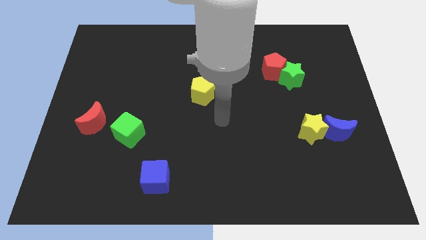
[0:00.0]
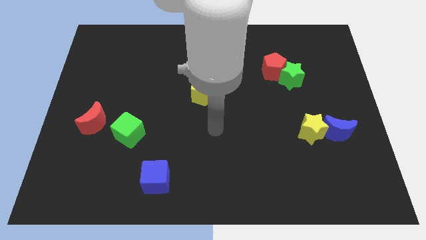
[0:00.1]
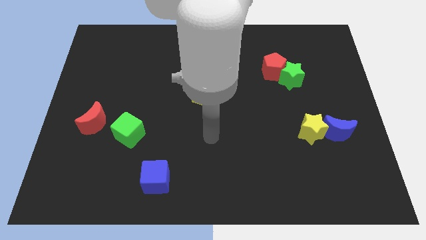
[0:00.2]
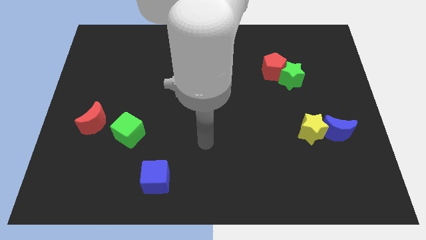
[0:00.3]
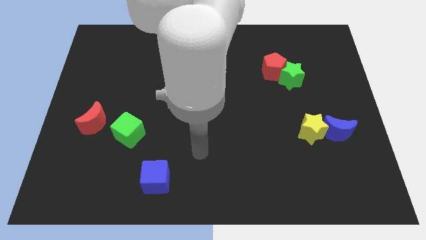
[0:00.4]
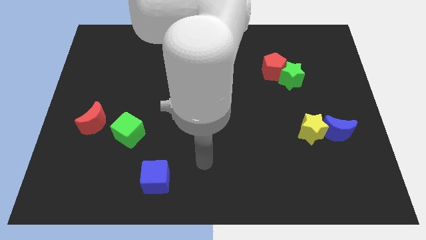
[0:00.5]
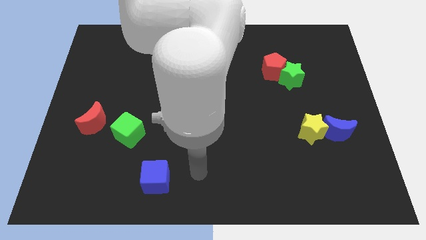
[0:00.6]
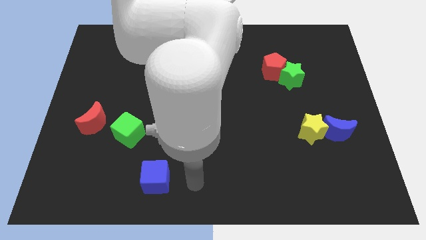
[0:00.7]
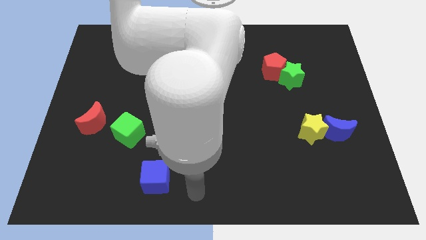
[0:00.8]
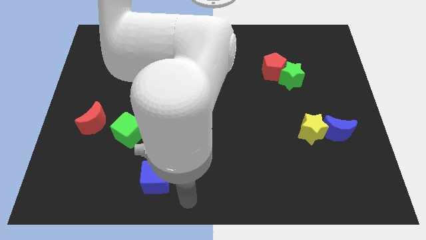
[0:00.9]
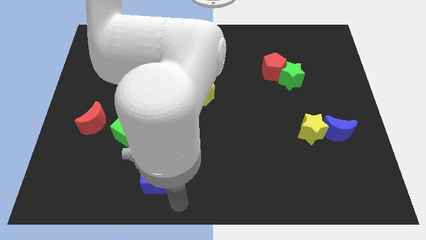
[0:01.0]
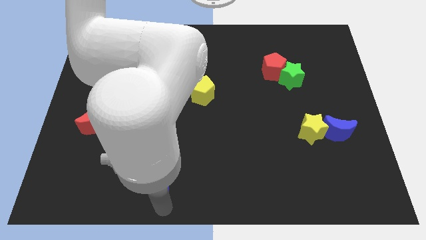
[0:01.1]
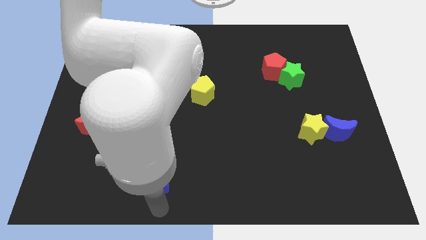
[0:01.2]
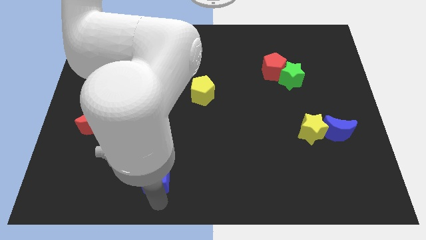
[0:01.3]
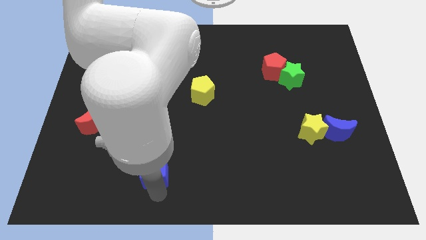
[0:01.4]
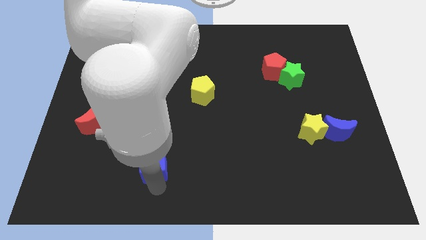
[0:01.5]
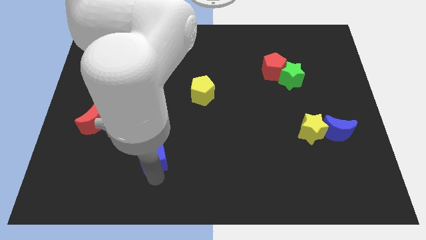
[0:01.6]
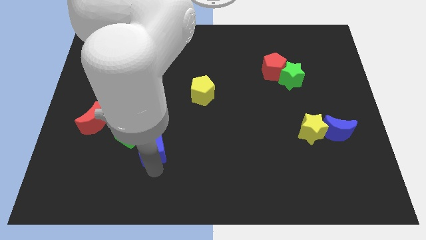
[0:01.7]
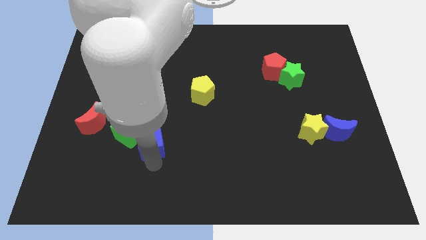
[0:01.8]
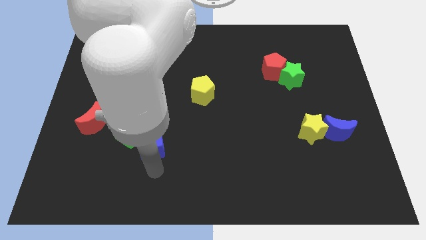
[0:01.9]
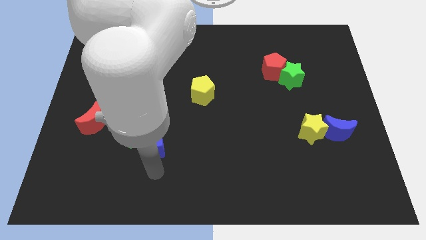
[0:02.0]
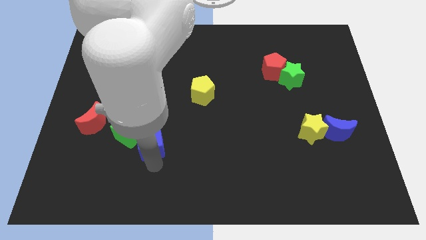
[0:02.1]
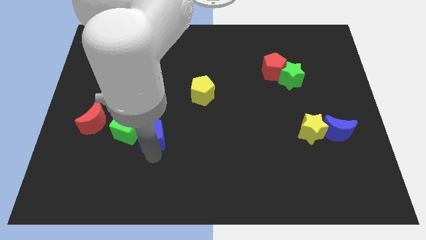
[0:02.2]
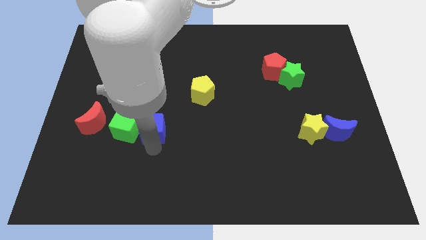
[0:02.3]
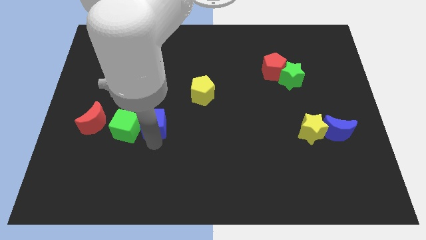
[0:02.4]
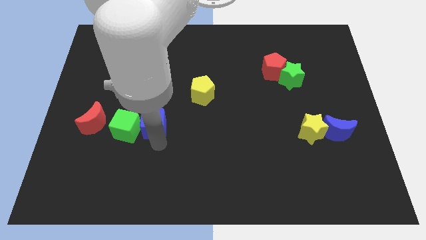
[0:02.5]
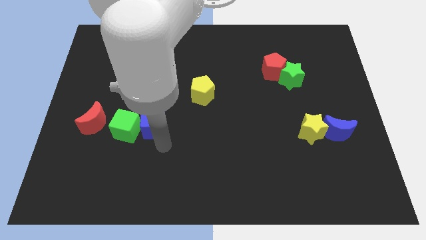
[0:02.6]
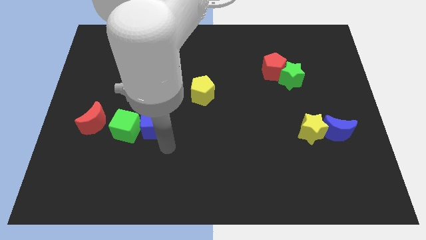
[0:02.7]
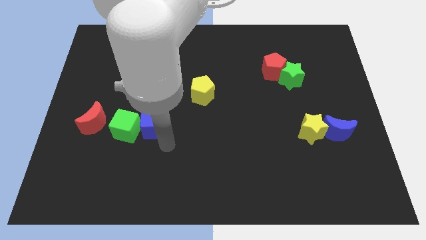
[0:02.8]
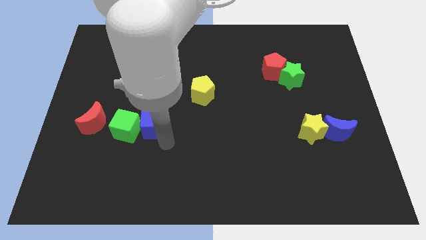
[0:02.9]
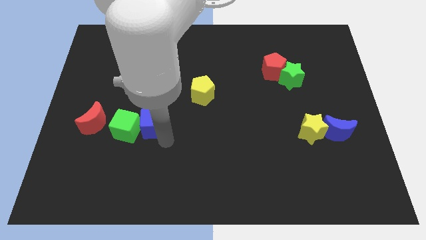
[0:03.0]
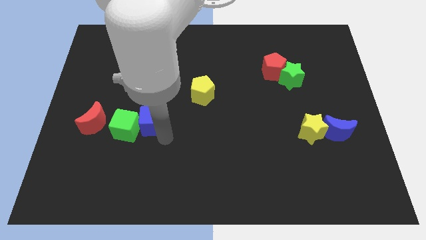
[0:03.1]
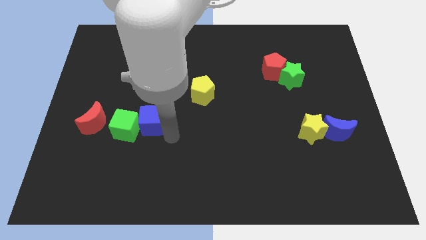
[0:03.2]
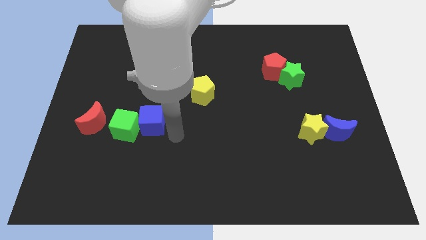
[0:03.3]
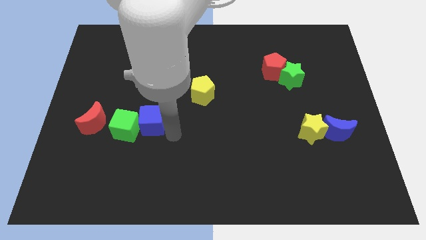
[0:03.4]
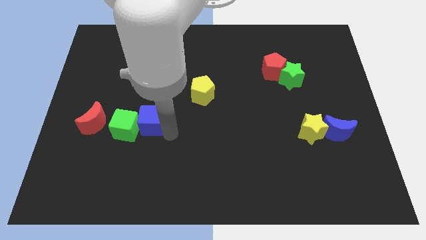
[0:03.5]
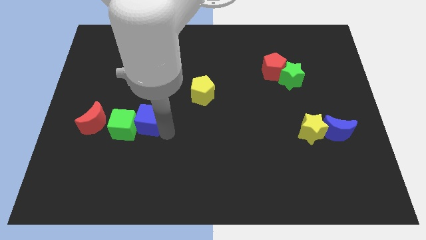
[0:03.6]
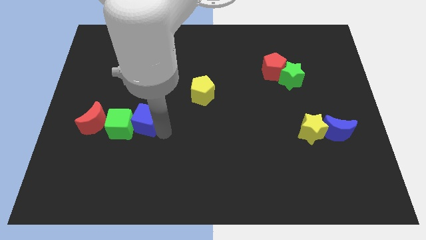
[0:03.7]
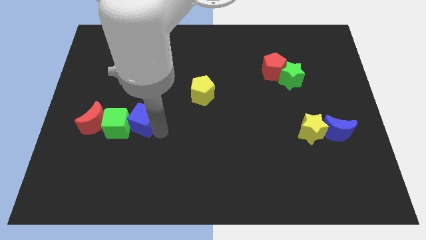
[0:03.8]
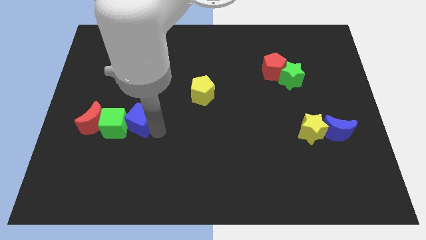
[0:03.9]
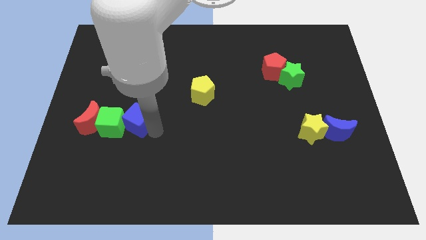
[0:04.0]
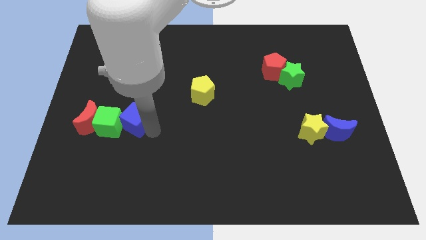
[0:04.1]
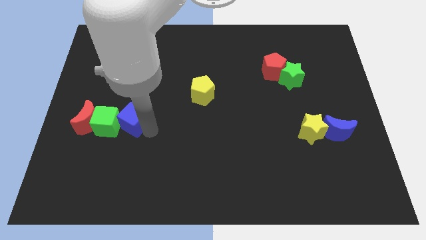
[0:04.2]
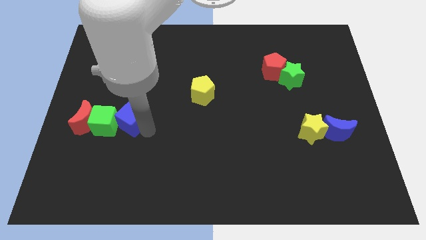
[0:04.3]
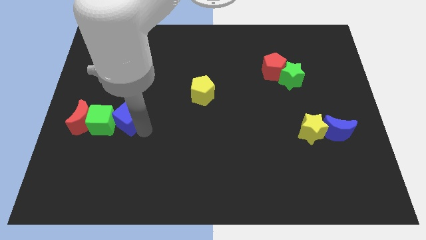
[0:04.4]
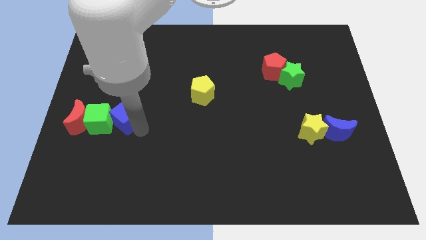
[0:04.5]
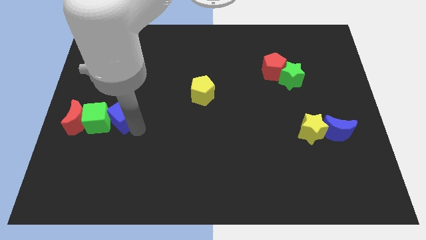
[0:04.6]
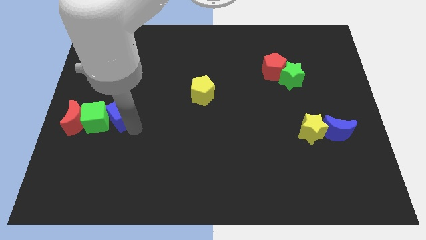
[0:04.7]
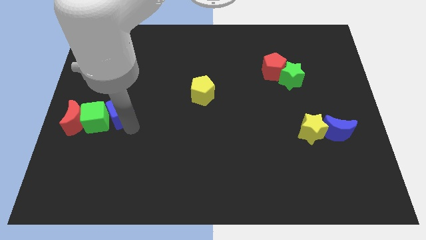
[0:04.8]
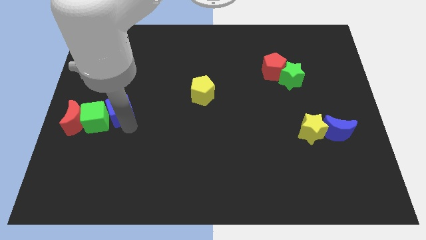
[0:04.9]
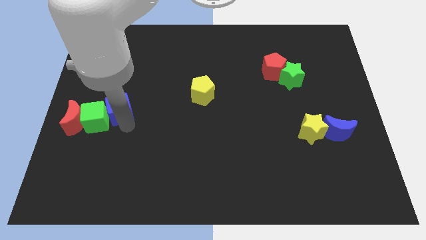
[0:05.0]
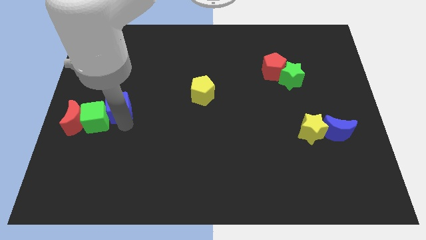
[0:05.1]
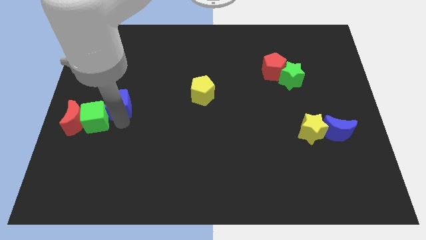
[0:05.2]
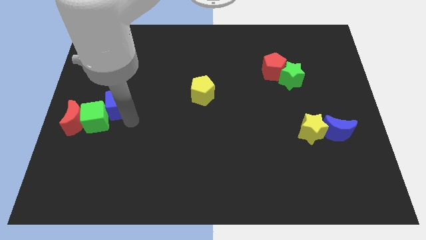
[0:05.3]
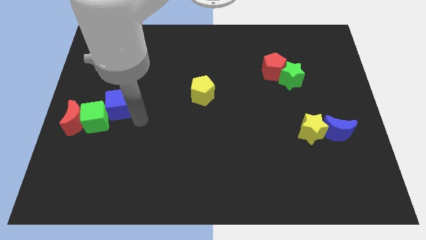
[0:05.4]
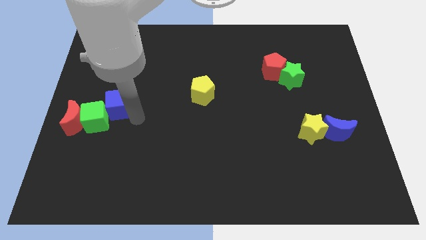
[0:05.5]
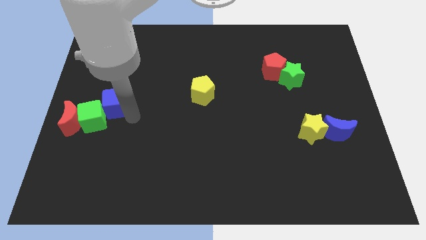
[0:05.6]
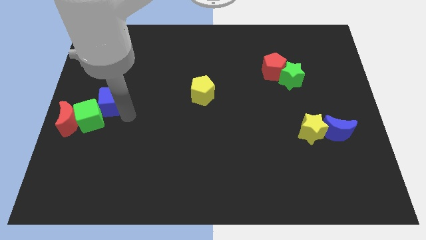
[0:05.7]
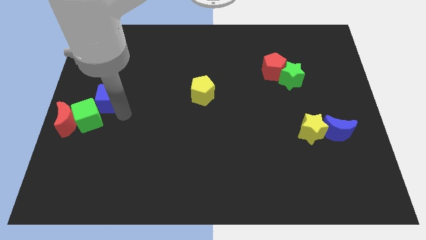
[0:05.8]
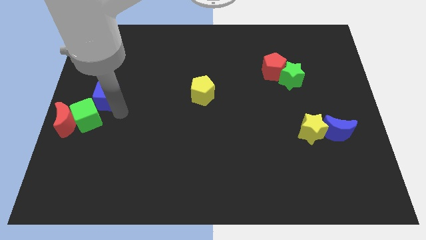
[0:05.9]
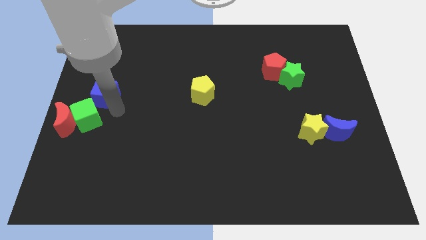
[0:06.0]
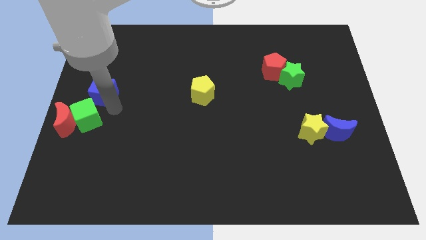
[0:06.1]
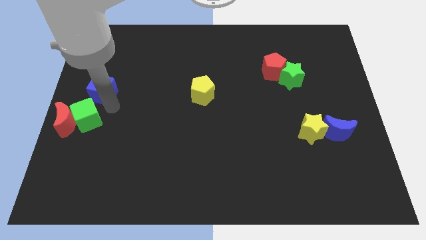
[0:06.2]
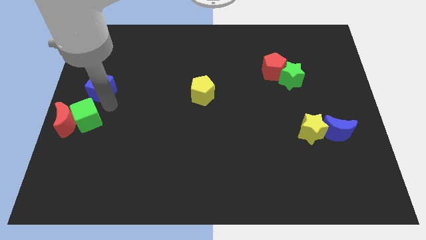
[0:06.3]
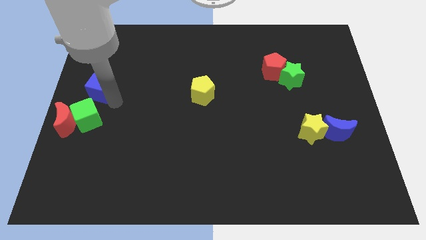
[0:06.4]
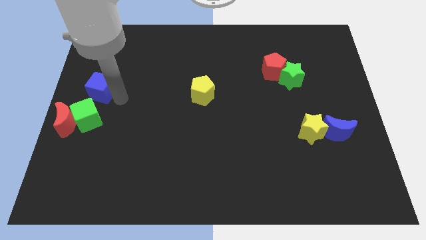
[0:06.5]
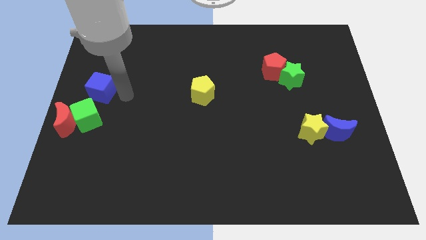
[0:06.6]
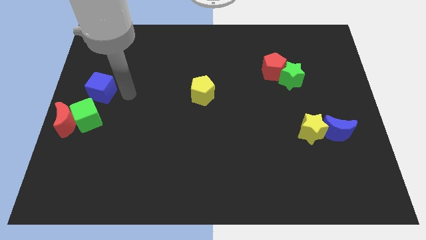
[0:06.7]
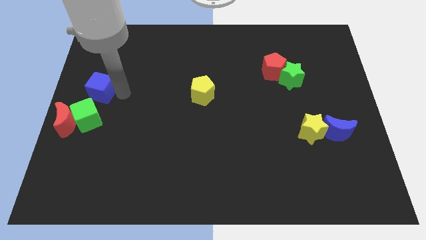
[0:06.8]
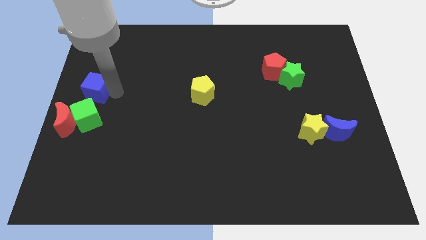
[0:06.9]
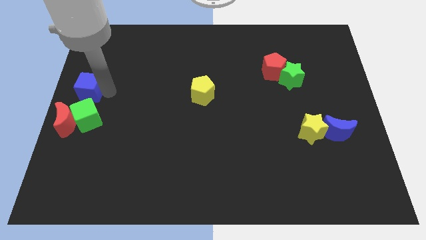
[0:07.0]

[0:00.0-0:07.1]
move the blue cube to the top side of the red moon
